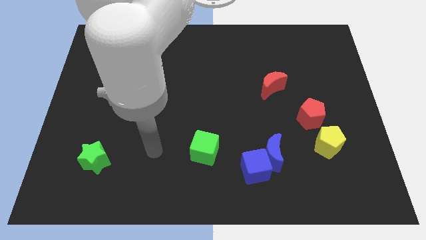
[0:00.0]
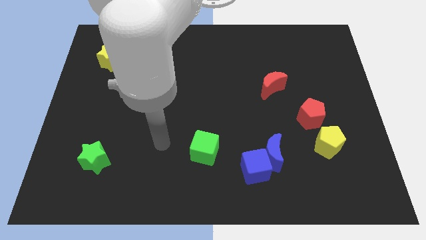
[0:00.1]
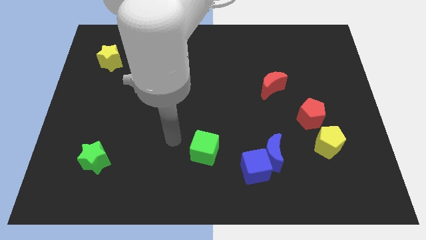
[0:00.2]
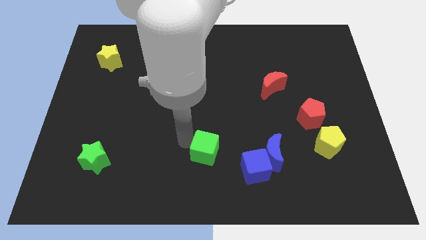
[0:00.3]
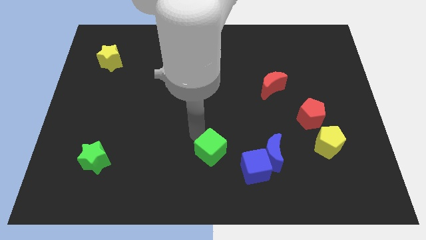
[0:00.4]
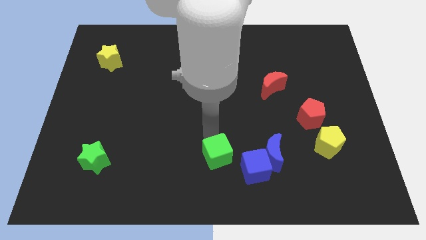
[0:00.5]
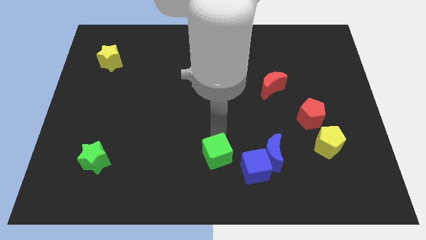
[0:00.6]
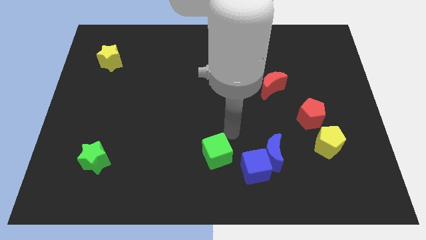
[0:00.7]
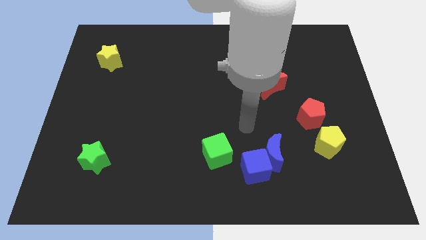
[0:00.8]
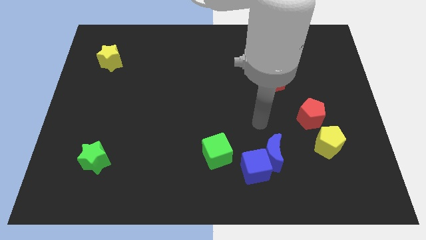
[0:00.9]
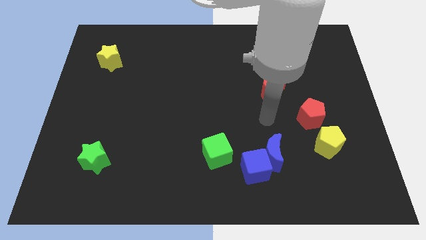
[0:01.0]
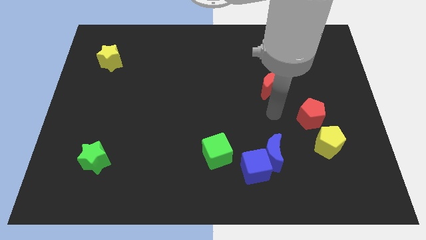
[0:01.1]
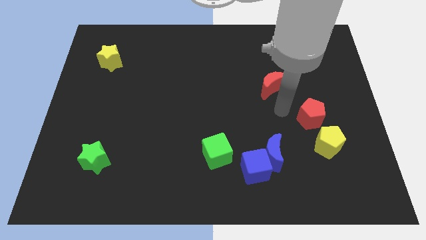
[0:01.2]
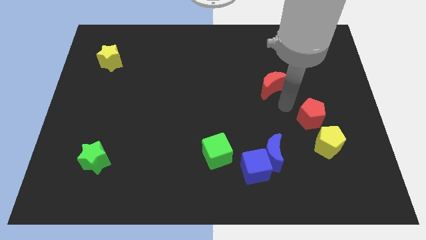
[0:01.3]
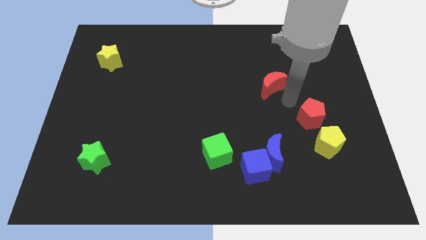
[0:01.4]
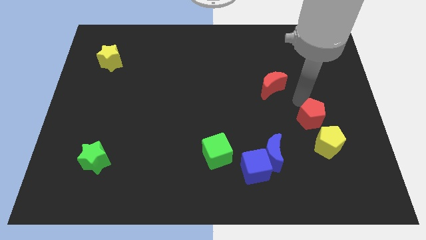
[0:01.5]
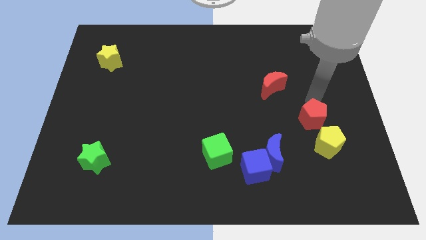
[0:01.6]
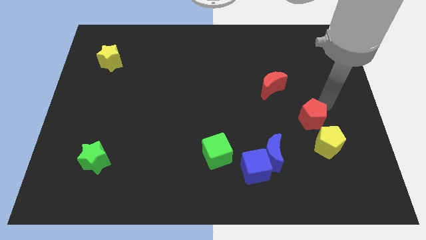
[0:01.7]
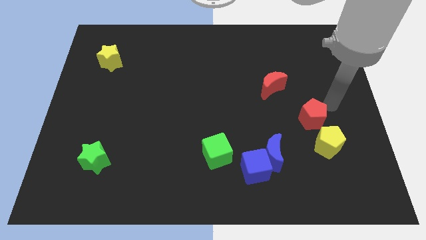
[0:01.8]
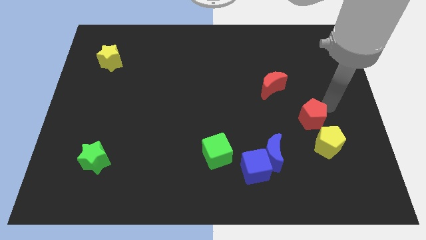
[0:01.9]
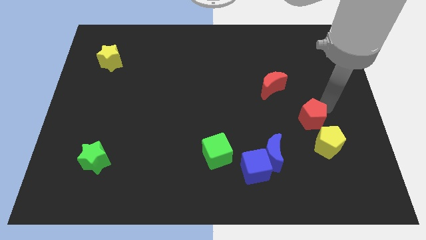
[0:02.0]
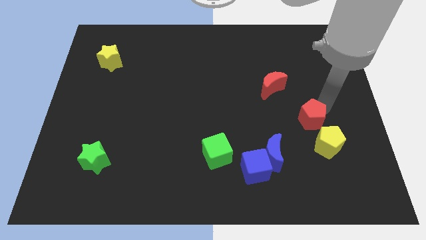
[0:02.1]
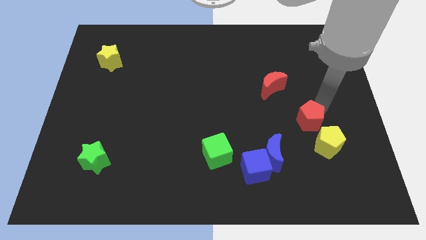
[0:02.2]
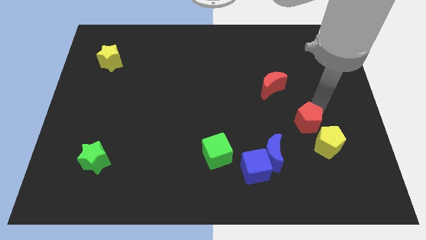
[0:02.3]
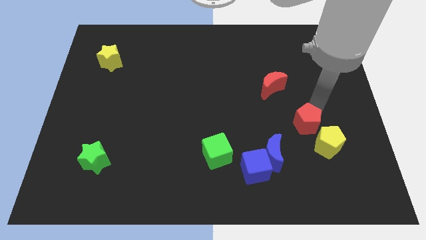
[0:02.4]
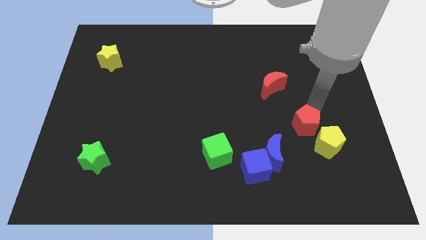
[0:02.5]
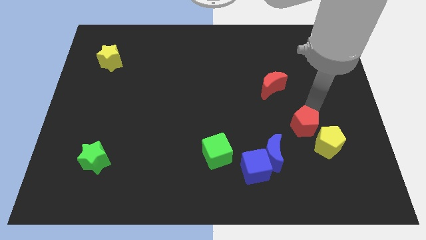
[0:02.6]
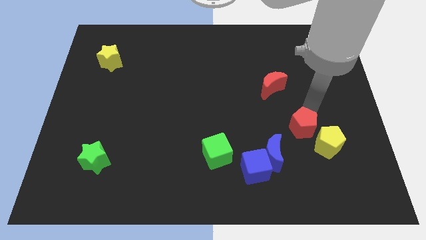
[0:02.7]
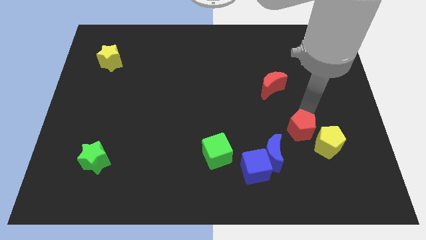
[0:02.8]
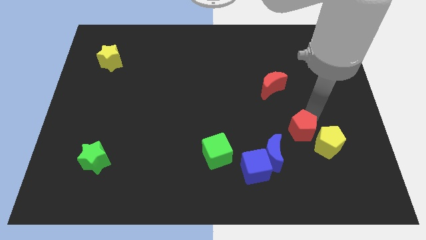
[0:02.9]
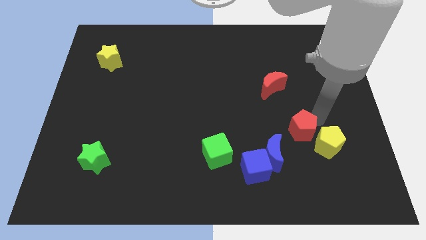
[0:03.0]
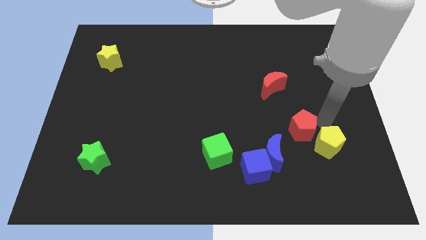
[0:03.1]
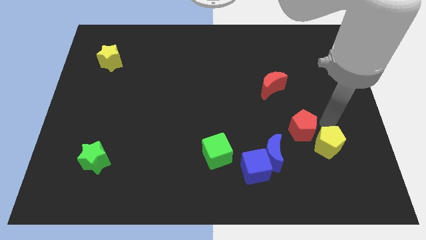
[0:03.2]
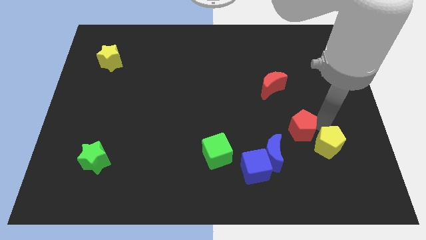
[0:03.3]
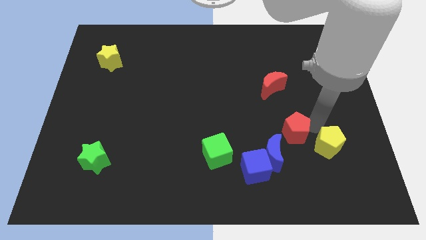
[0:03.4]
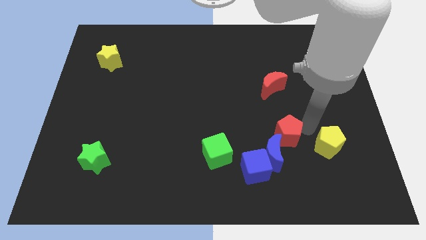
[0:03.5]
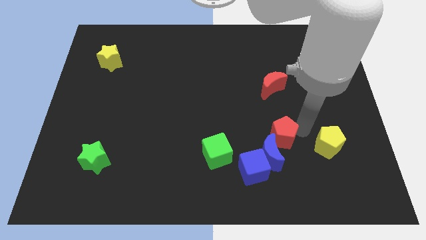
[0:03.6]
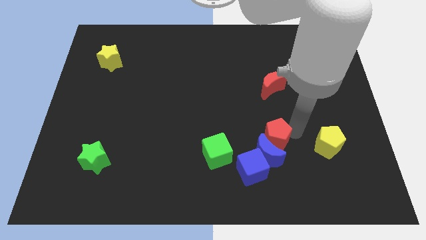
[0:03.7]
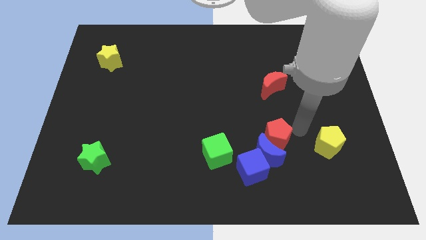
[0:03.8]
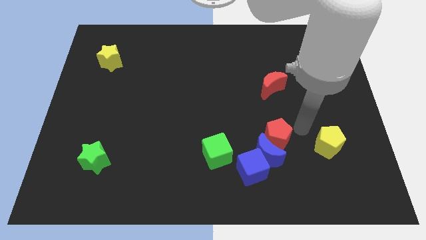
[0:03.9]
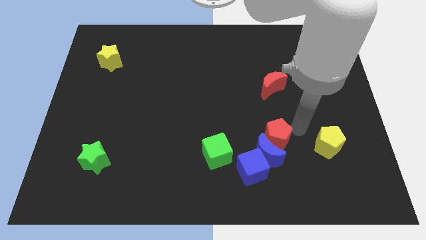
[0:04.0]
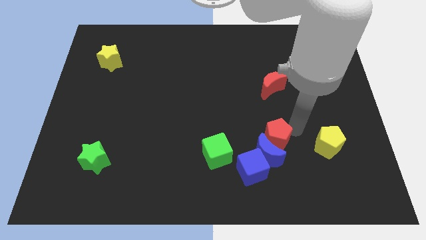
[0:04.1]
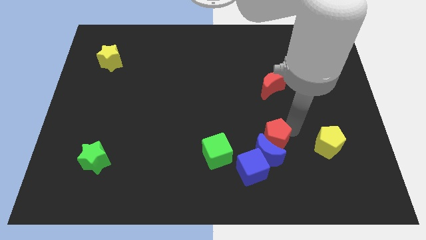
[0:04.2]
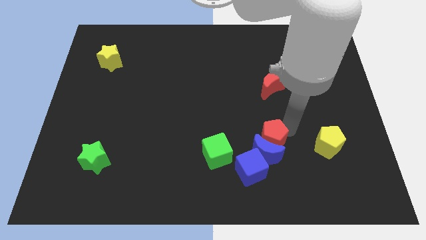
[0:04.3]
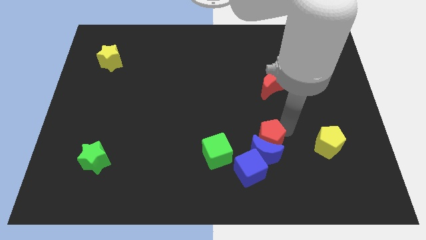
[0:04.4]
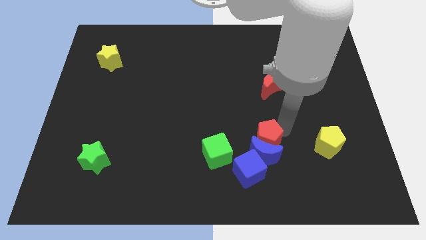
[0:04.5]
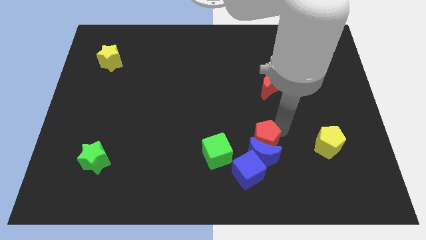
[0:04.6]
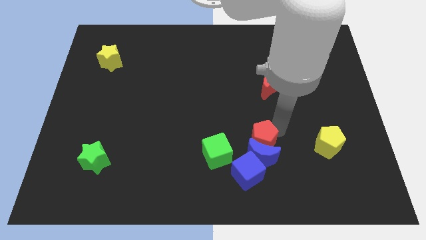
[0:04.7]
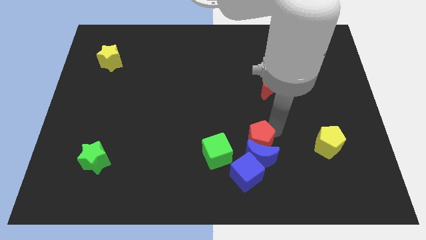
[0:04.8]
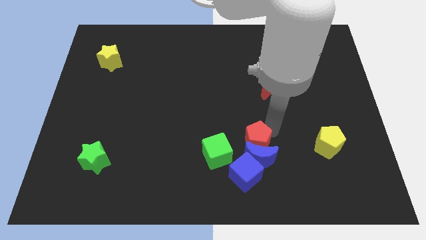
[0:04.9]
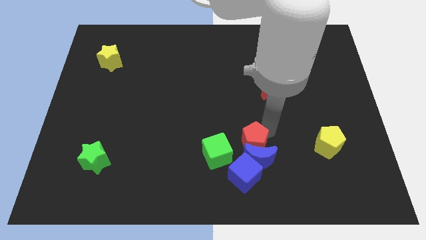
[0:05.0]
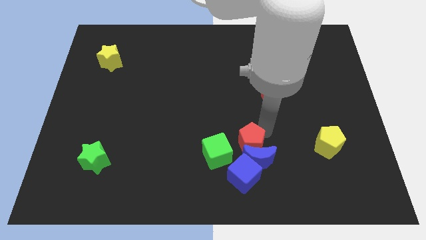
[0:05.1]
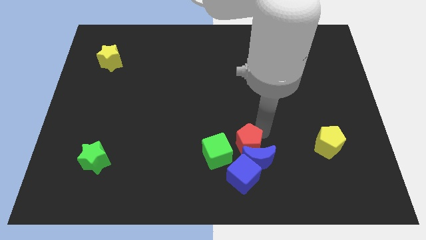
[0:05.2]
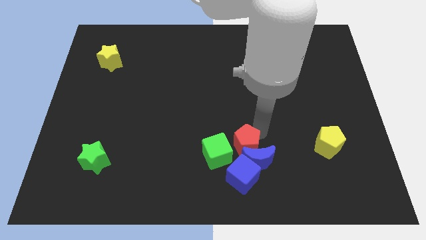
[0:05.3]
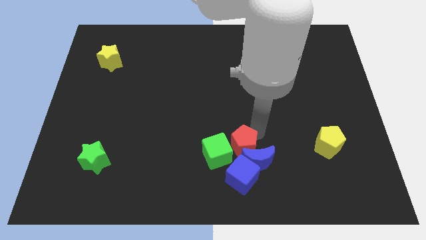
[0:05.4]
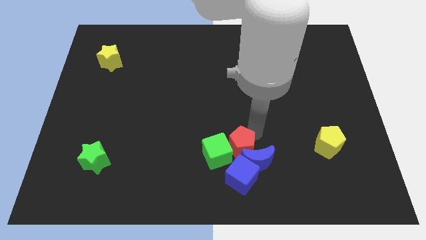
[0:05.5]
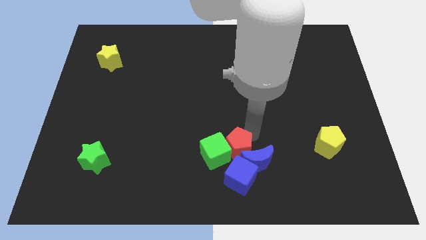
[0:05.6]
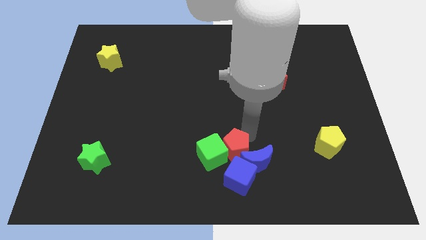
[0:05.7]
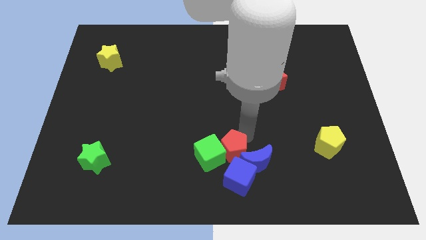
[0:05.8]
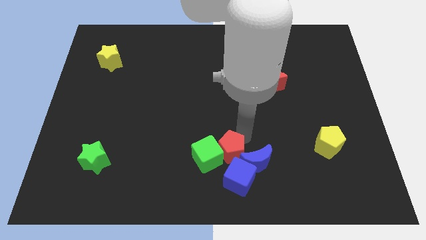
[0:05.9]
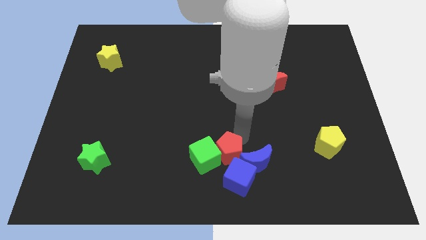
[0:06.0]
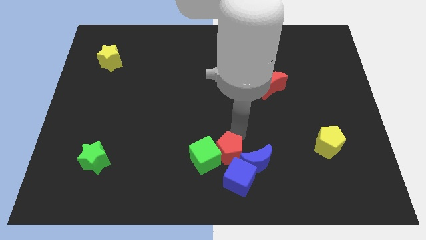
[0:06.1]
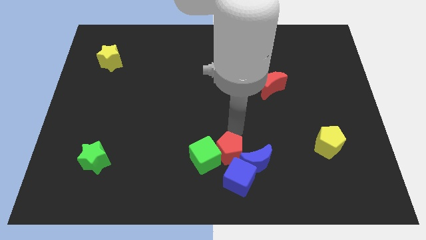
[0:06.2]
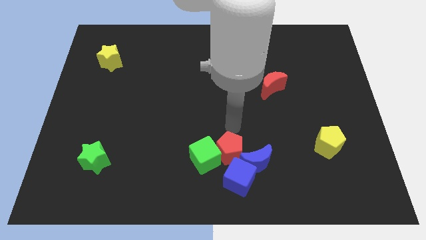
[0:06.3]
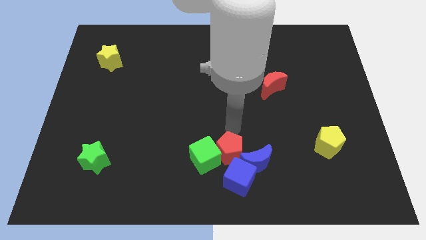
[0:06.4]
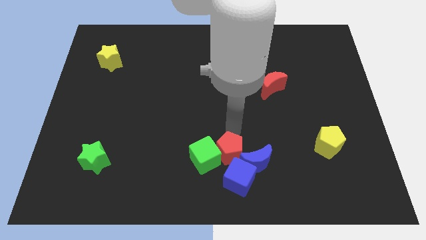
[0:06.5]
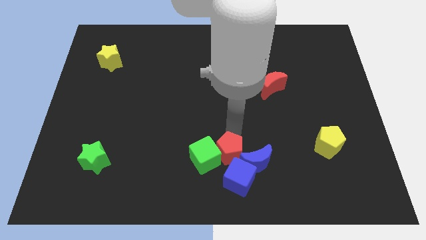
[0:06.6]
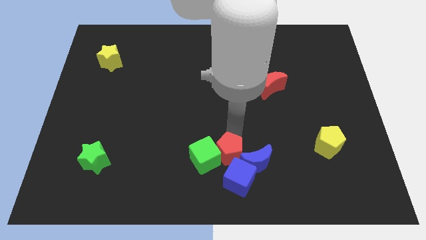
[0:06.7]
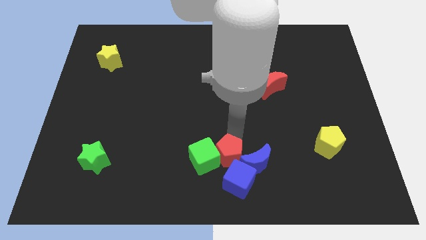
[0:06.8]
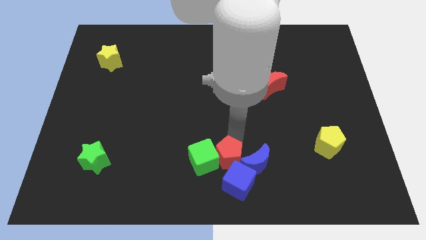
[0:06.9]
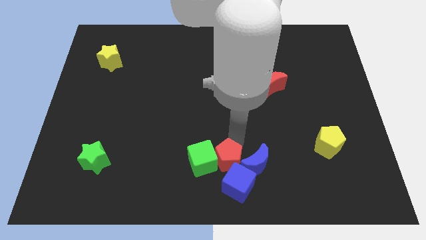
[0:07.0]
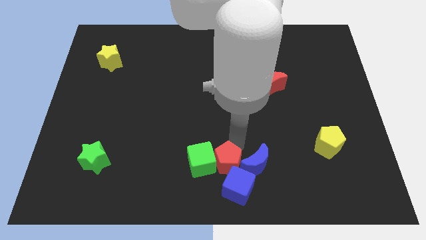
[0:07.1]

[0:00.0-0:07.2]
move the red pentagon diagonally down and to the left of the blue moon

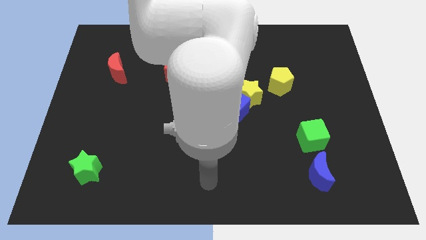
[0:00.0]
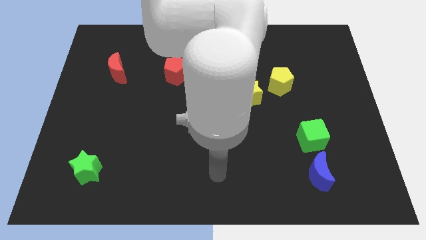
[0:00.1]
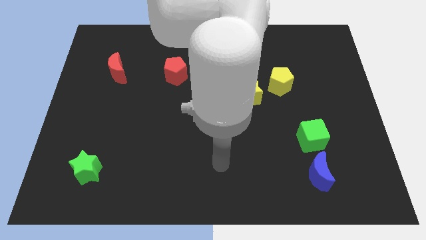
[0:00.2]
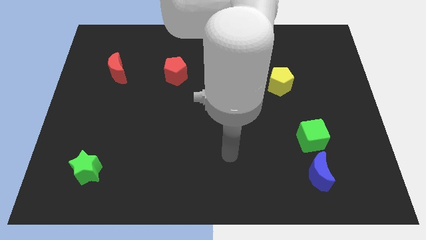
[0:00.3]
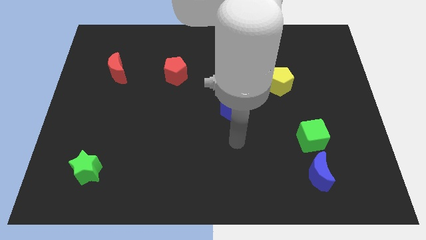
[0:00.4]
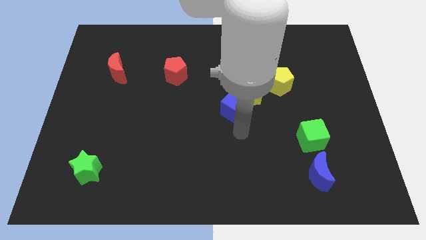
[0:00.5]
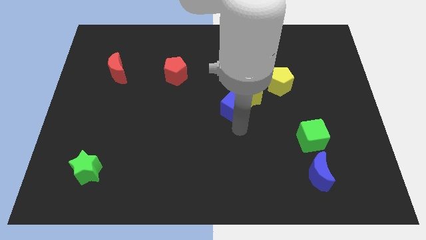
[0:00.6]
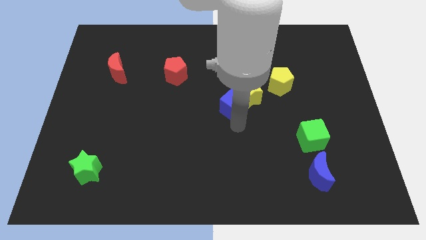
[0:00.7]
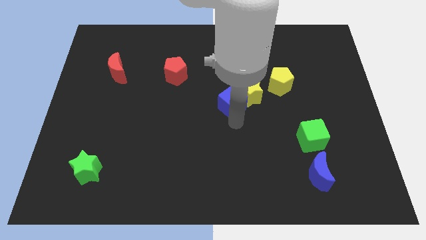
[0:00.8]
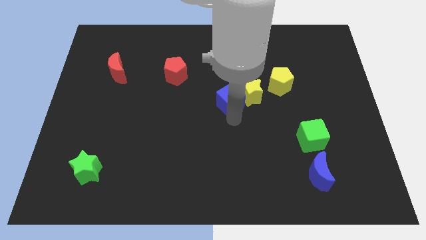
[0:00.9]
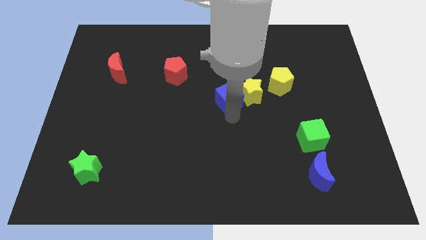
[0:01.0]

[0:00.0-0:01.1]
slide the blue cube diagonally up and to the left of the yellow star
